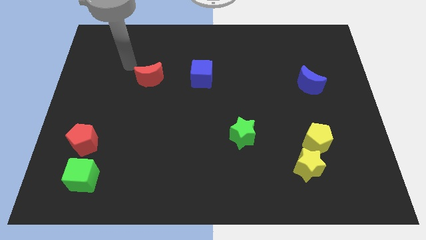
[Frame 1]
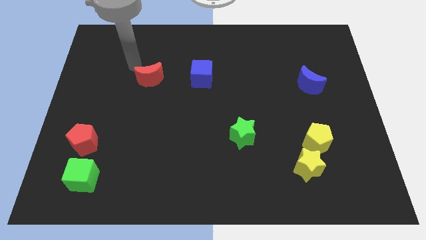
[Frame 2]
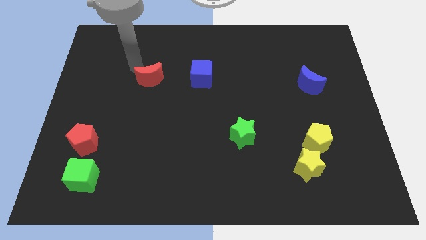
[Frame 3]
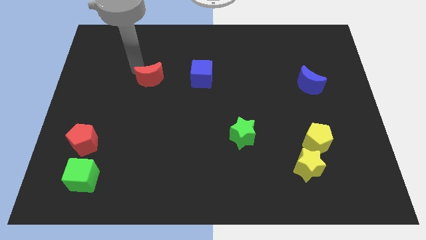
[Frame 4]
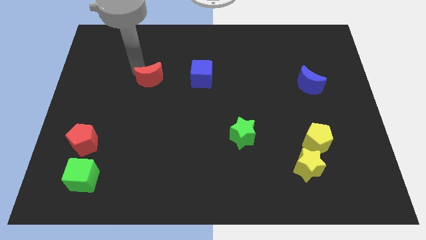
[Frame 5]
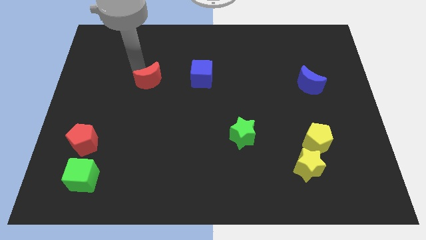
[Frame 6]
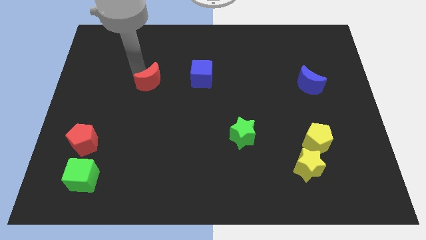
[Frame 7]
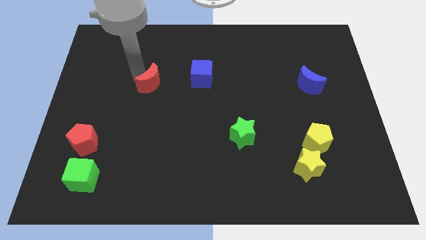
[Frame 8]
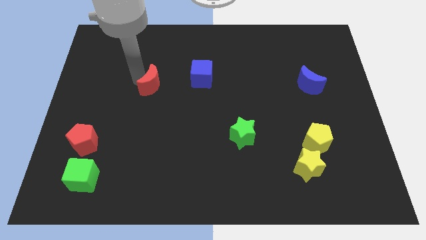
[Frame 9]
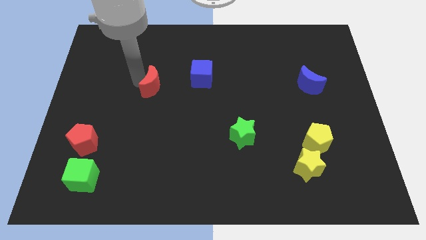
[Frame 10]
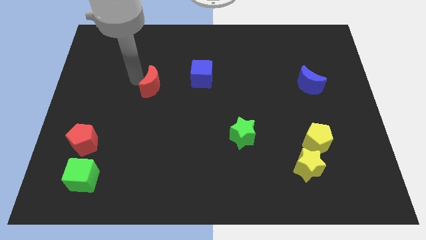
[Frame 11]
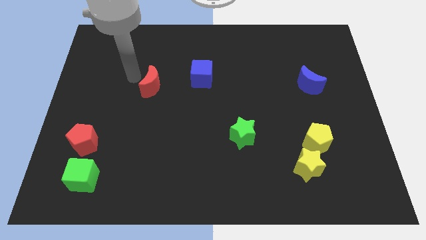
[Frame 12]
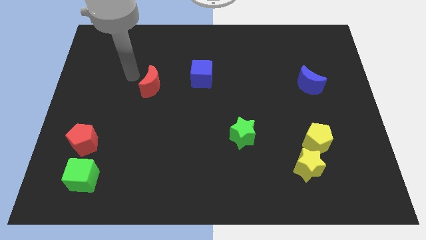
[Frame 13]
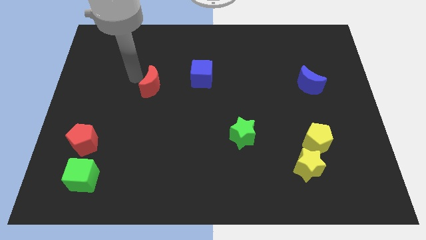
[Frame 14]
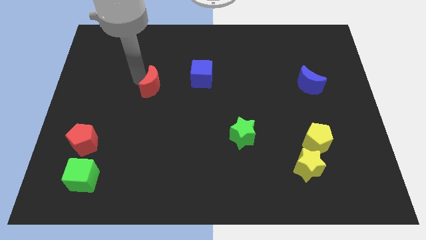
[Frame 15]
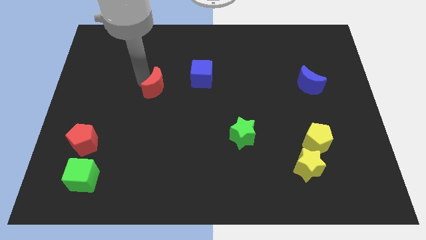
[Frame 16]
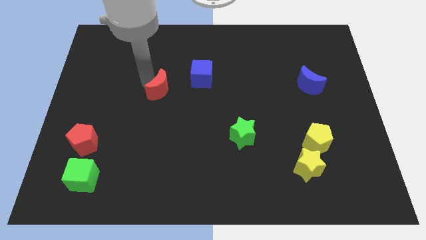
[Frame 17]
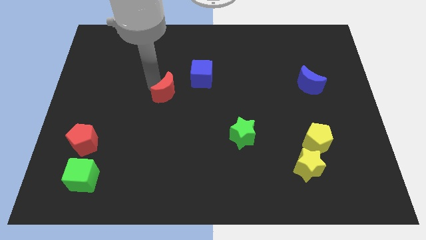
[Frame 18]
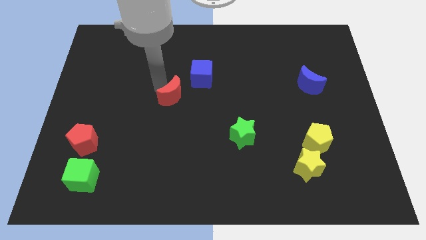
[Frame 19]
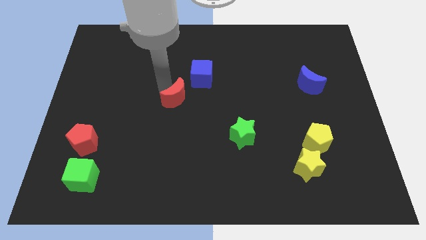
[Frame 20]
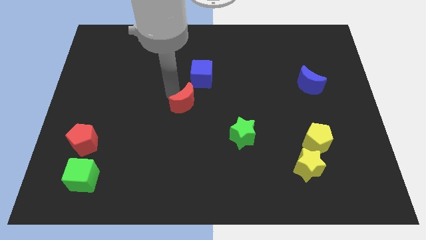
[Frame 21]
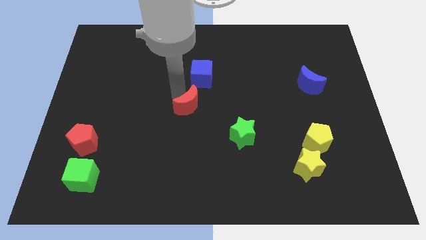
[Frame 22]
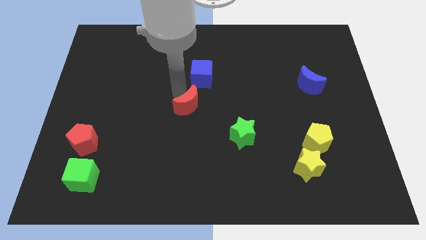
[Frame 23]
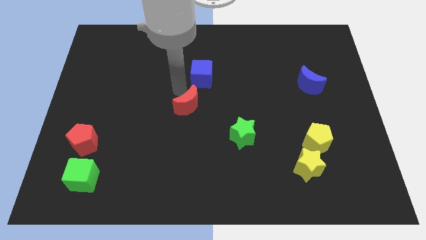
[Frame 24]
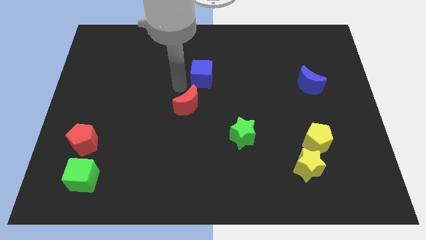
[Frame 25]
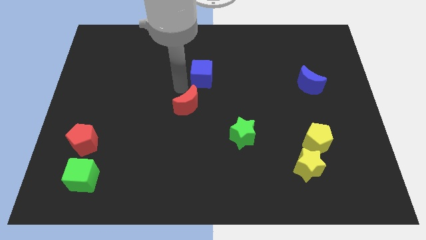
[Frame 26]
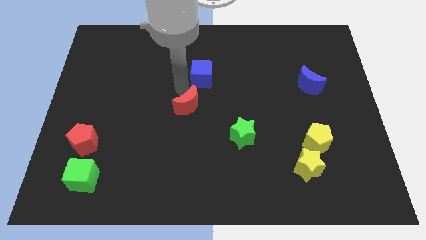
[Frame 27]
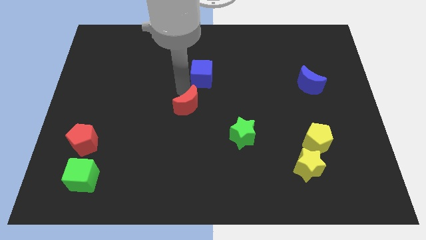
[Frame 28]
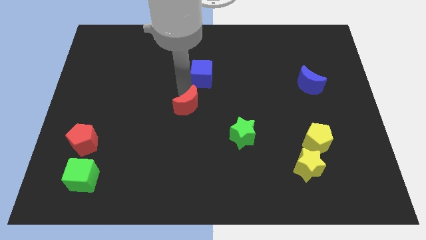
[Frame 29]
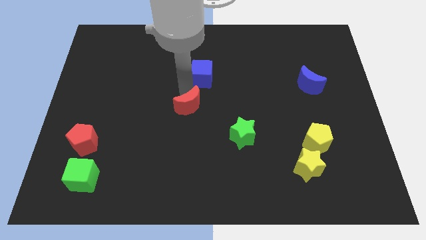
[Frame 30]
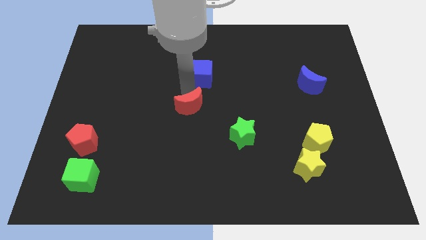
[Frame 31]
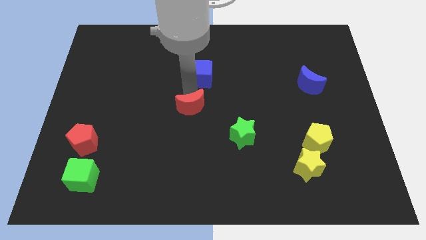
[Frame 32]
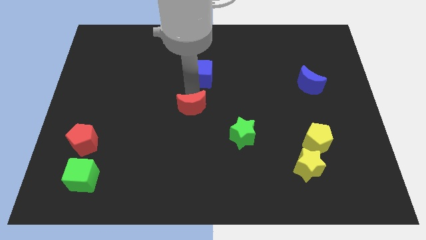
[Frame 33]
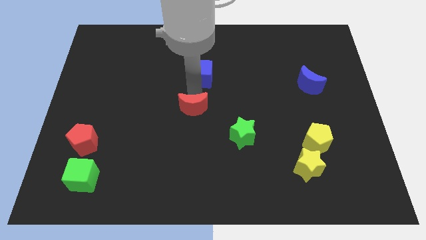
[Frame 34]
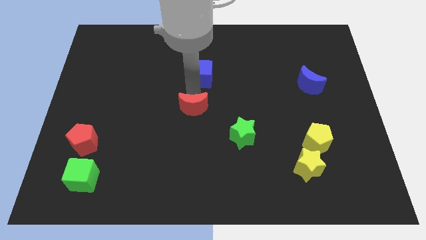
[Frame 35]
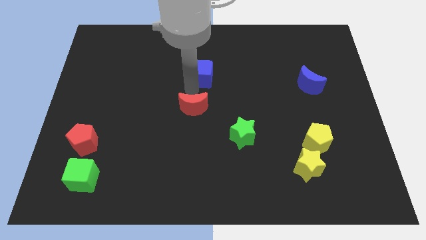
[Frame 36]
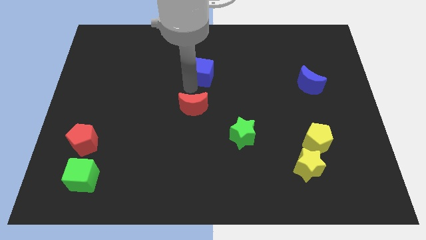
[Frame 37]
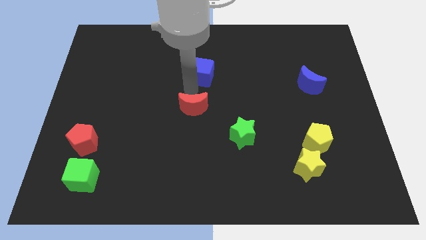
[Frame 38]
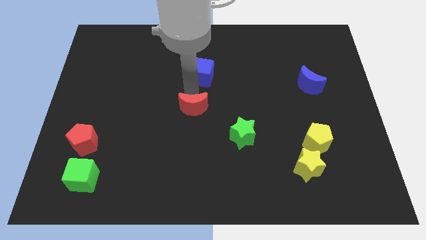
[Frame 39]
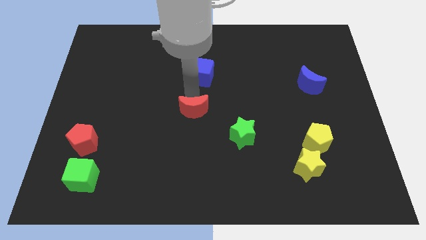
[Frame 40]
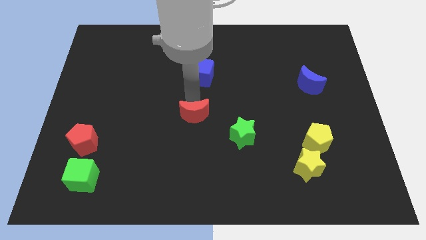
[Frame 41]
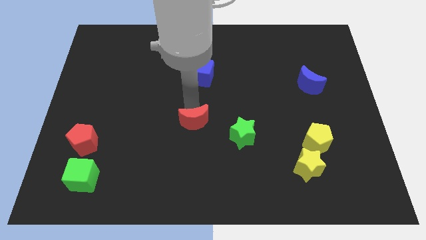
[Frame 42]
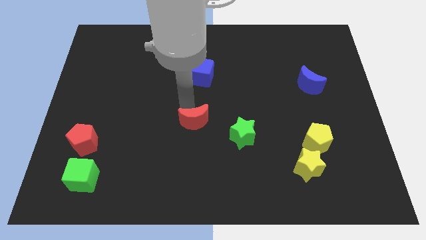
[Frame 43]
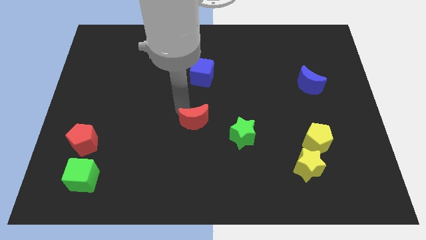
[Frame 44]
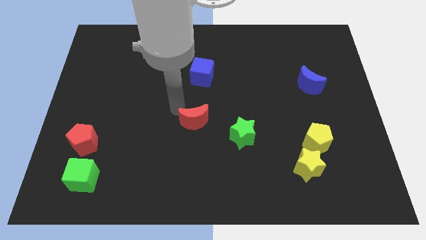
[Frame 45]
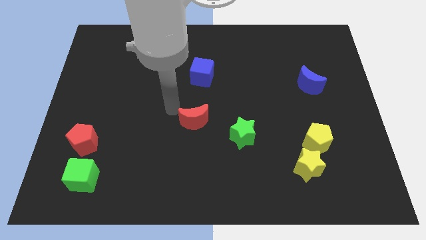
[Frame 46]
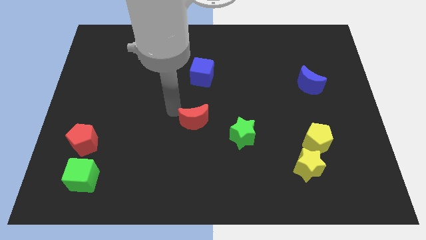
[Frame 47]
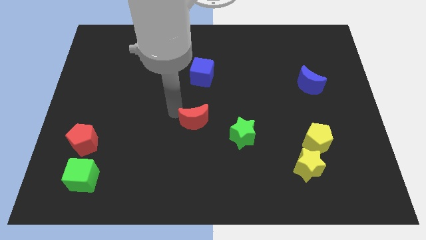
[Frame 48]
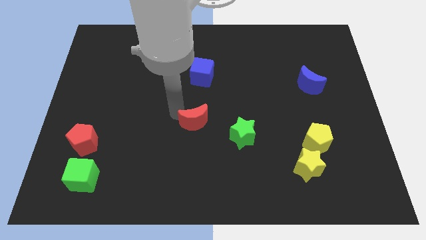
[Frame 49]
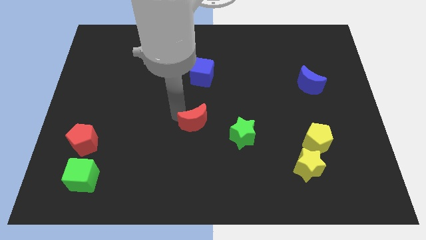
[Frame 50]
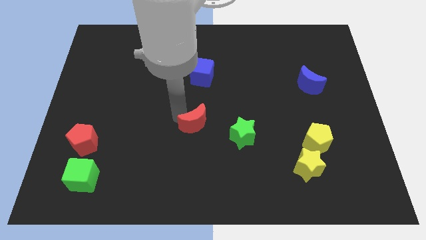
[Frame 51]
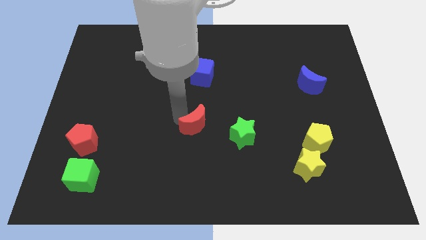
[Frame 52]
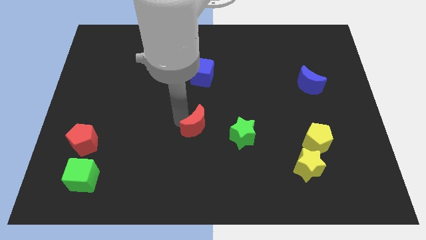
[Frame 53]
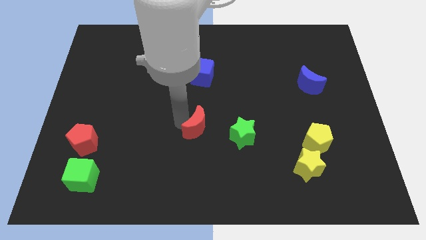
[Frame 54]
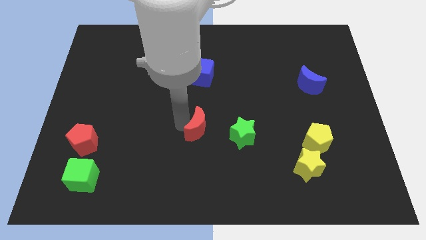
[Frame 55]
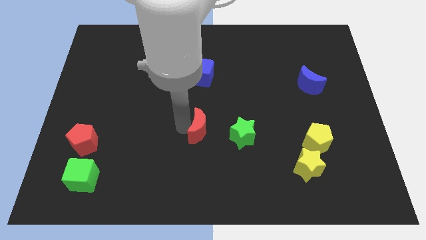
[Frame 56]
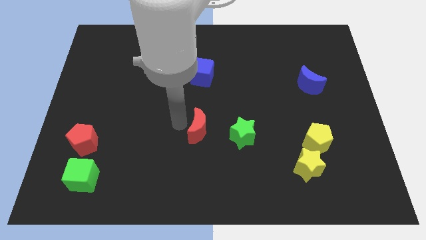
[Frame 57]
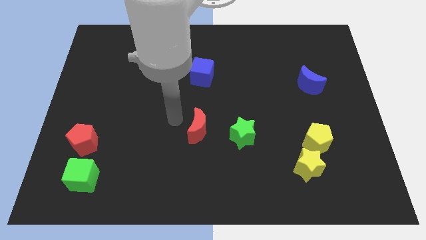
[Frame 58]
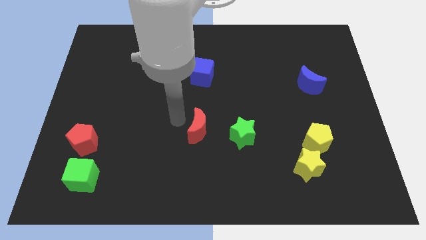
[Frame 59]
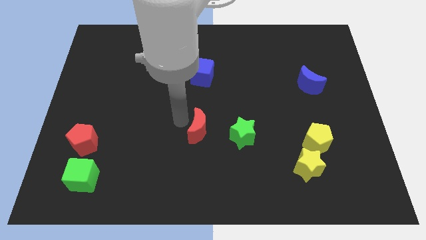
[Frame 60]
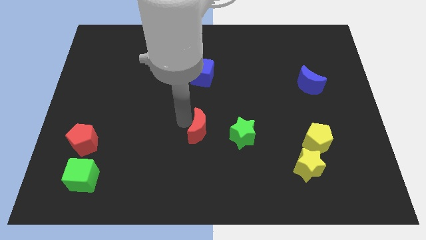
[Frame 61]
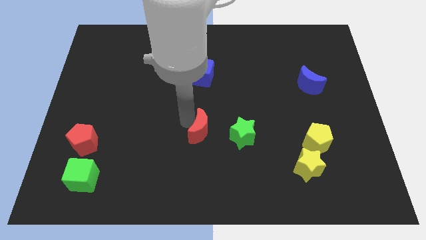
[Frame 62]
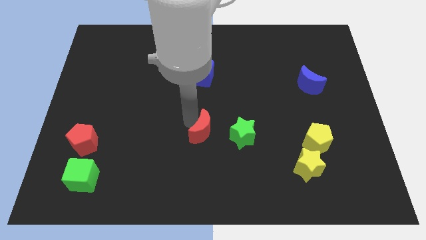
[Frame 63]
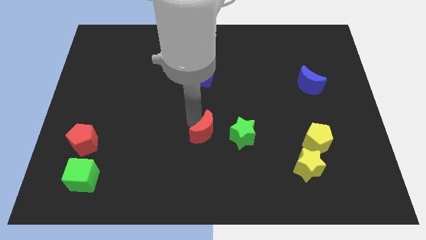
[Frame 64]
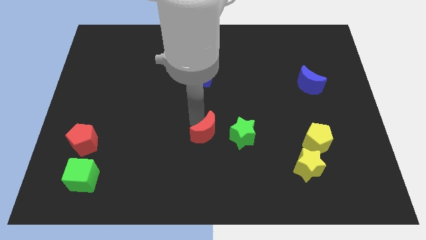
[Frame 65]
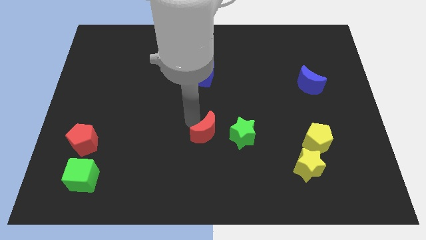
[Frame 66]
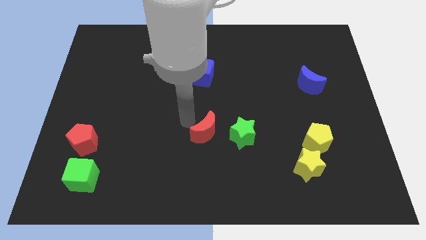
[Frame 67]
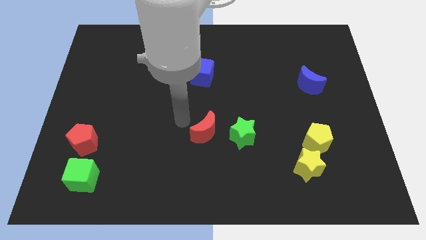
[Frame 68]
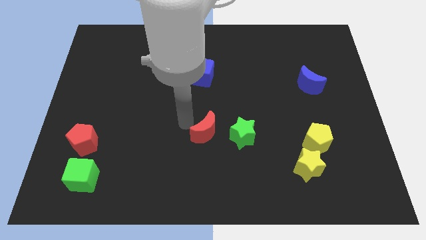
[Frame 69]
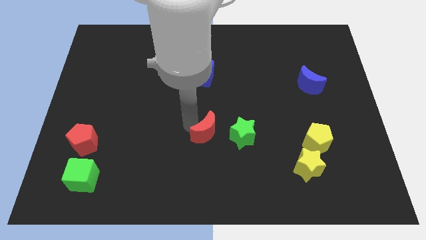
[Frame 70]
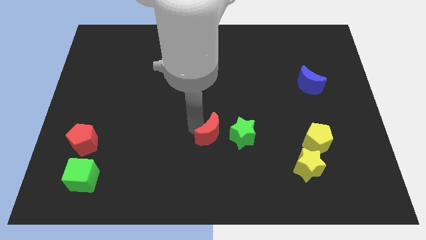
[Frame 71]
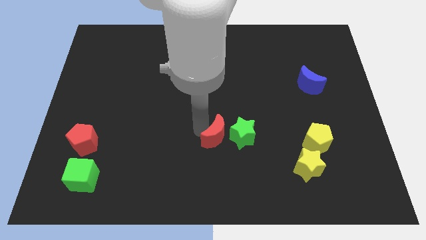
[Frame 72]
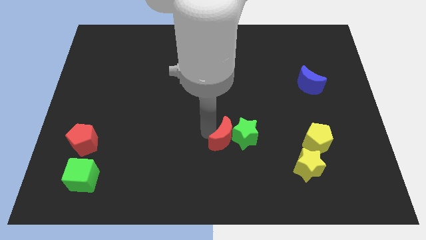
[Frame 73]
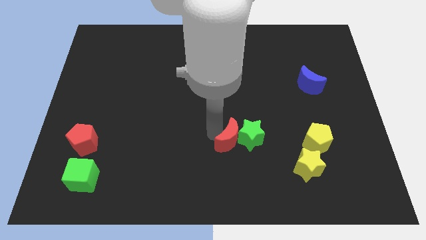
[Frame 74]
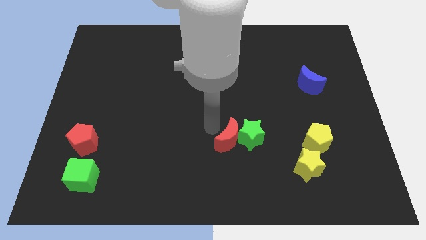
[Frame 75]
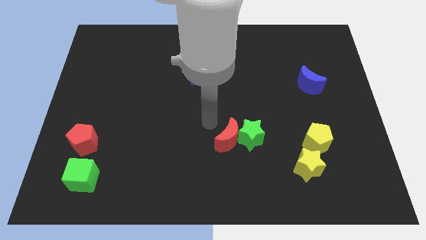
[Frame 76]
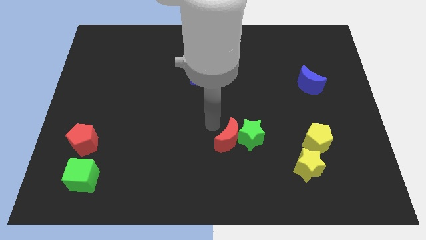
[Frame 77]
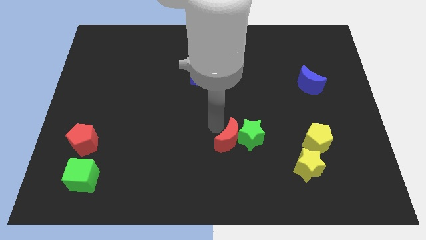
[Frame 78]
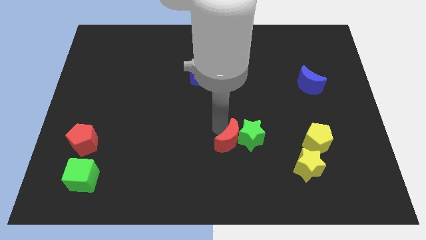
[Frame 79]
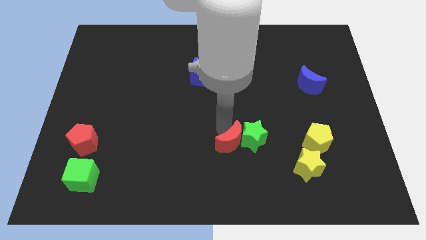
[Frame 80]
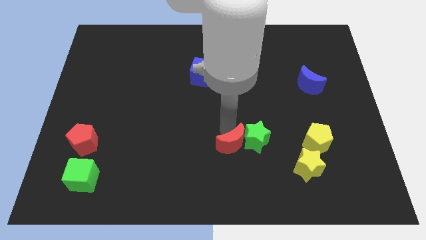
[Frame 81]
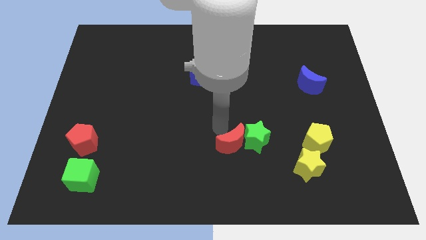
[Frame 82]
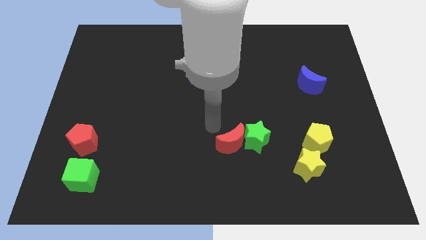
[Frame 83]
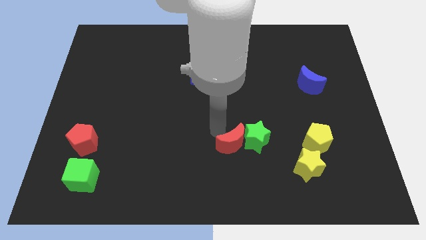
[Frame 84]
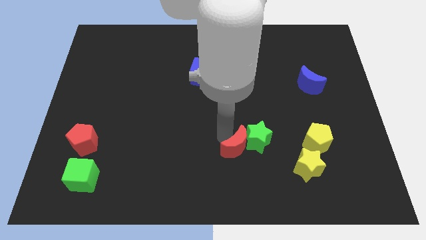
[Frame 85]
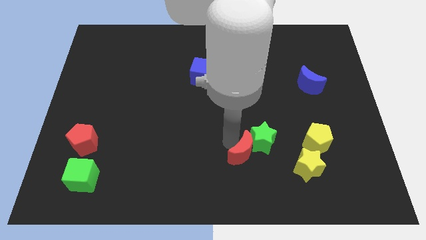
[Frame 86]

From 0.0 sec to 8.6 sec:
move the red moon to the left side of the yellow star
